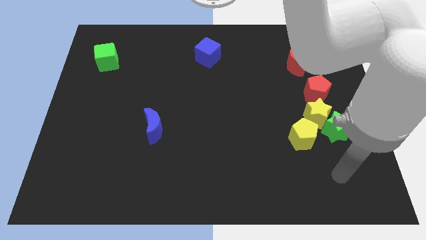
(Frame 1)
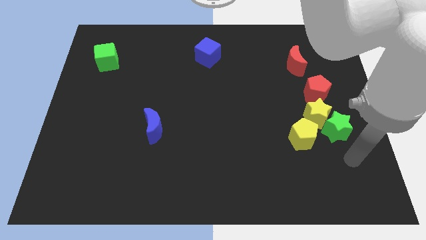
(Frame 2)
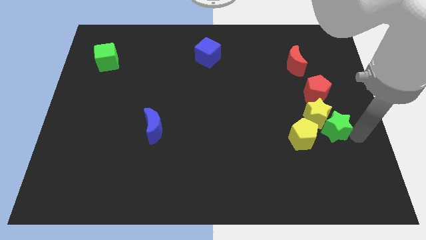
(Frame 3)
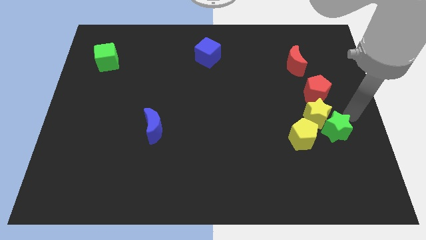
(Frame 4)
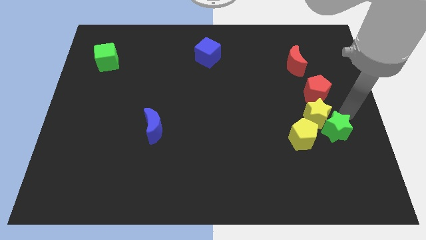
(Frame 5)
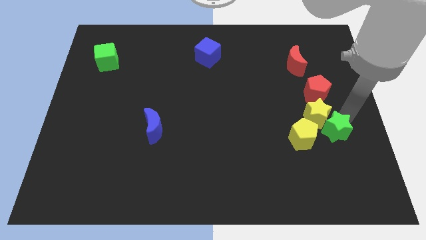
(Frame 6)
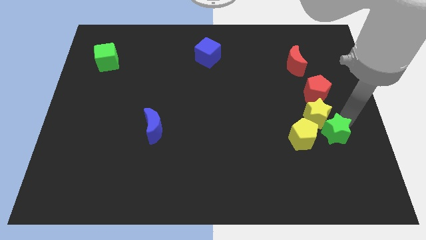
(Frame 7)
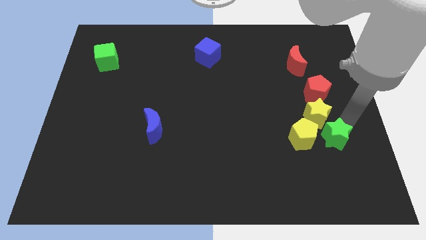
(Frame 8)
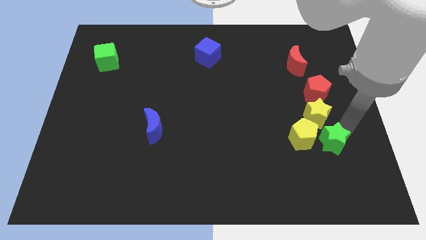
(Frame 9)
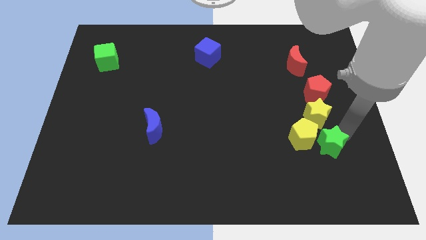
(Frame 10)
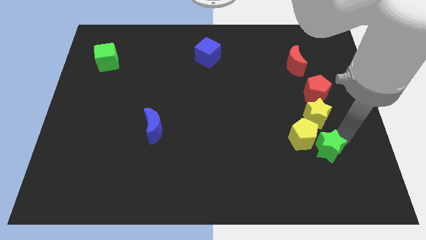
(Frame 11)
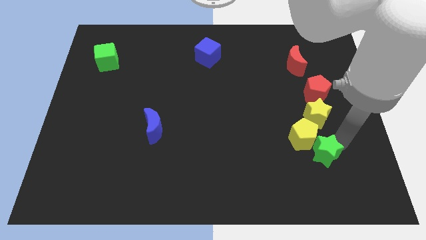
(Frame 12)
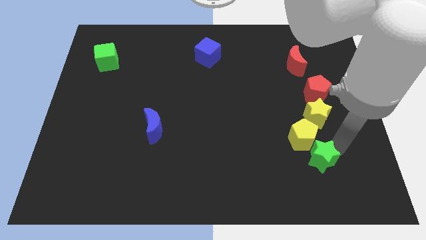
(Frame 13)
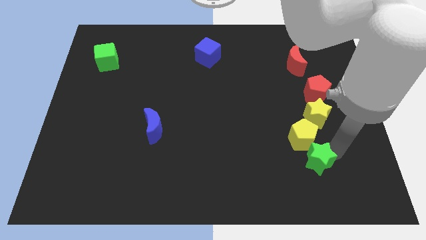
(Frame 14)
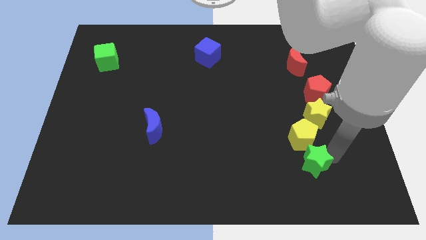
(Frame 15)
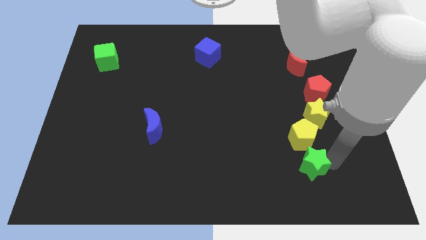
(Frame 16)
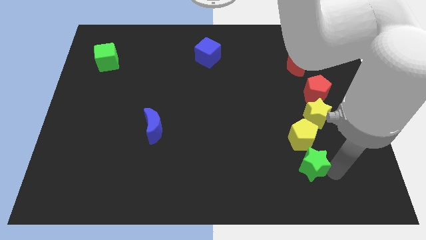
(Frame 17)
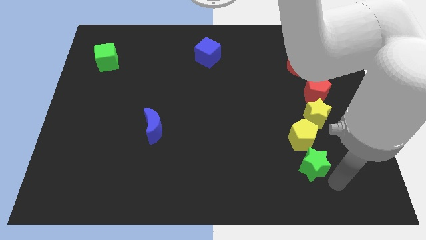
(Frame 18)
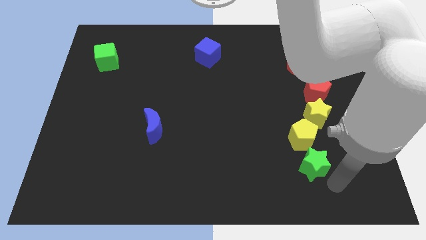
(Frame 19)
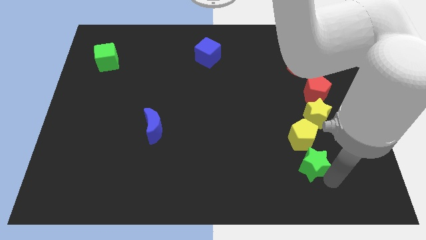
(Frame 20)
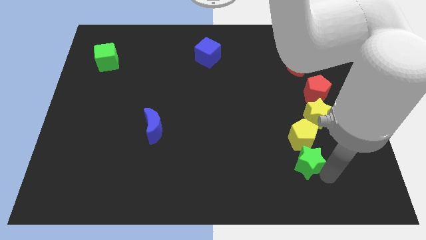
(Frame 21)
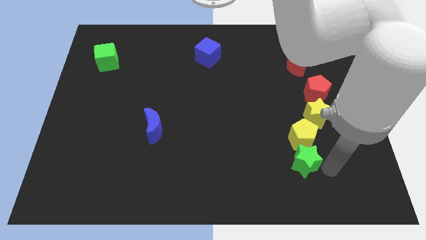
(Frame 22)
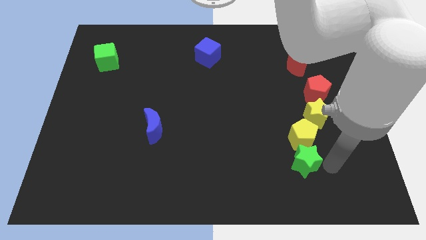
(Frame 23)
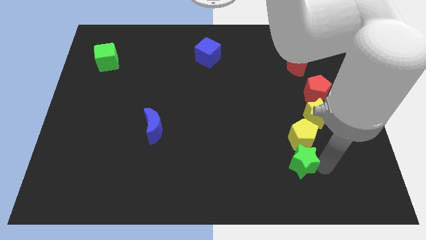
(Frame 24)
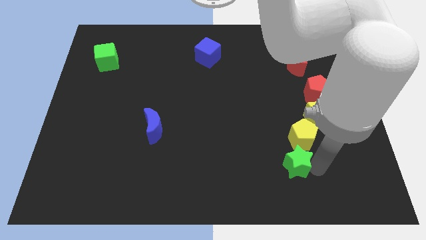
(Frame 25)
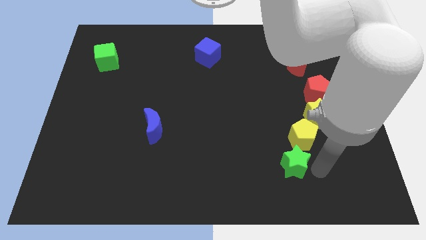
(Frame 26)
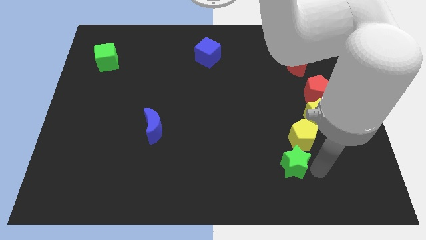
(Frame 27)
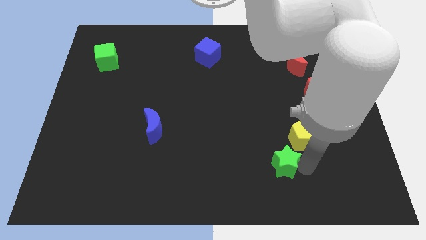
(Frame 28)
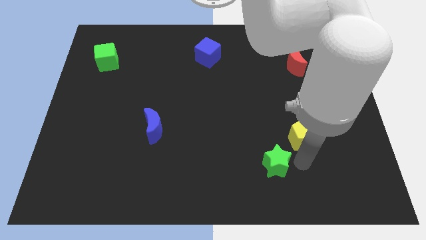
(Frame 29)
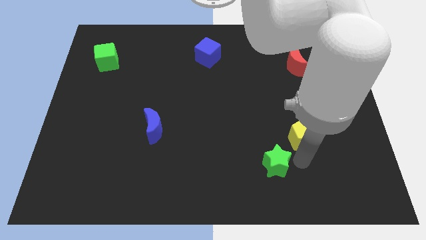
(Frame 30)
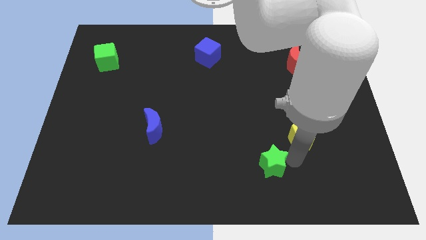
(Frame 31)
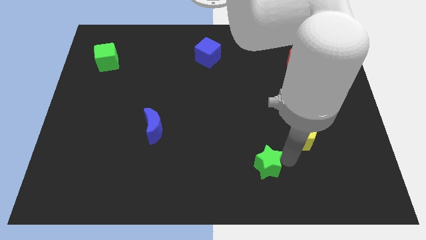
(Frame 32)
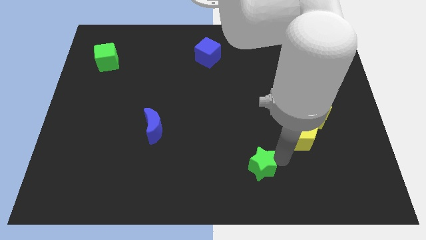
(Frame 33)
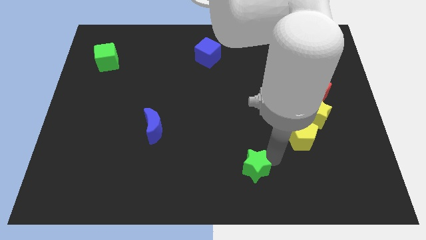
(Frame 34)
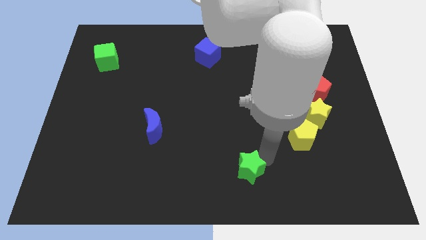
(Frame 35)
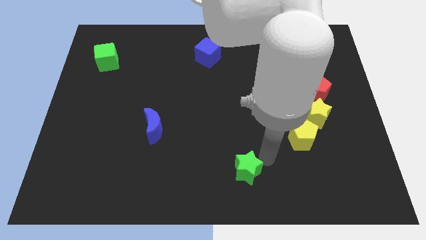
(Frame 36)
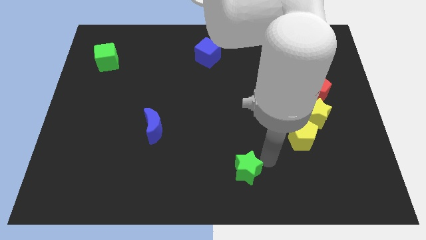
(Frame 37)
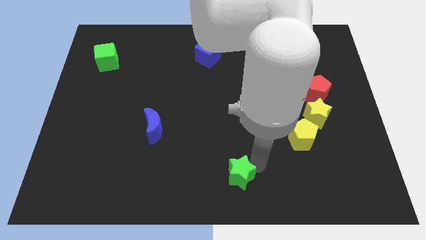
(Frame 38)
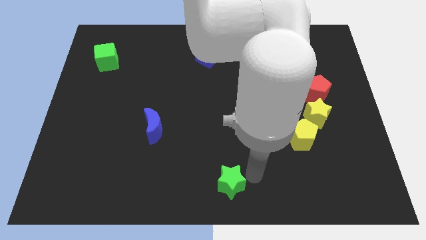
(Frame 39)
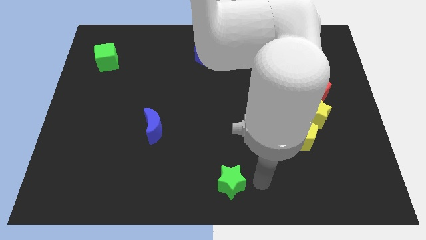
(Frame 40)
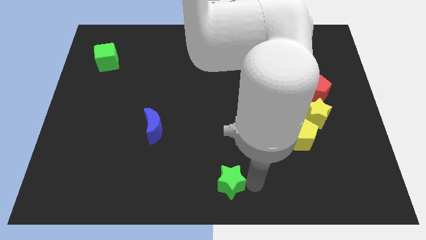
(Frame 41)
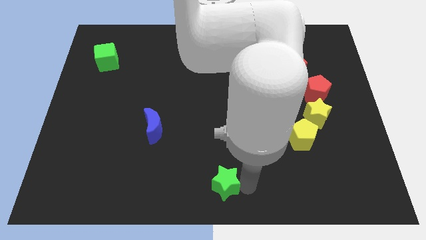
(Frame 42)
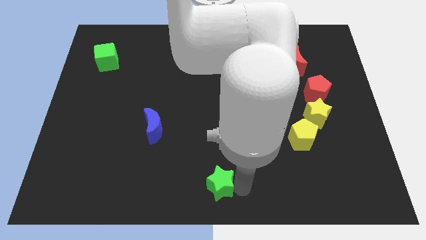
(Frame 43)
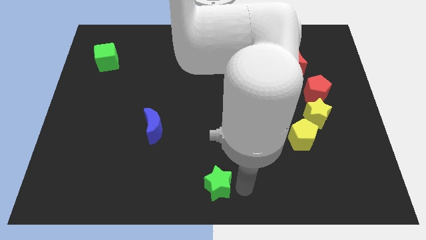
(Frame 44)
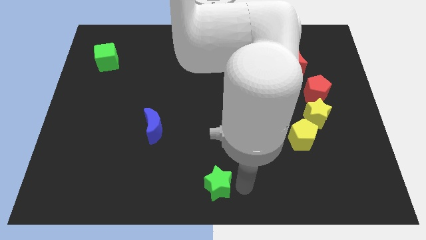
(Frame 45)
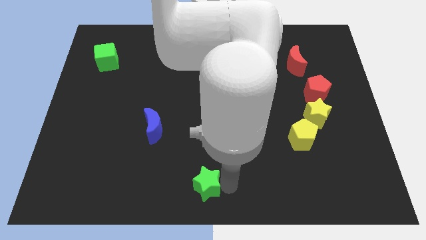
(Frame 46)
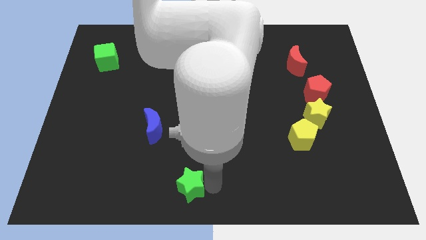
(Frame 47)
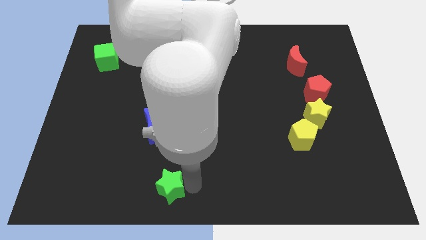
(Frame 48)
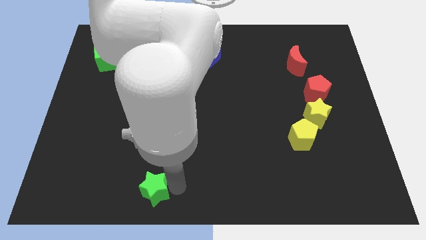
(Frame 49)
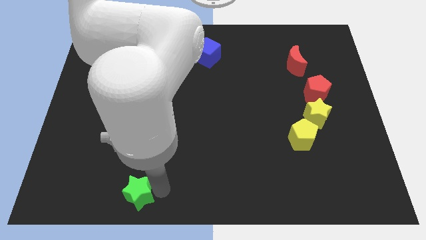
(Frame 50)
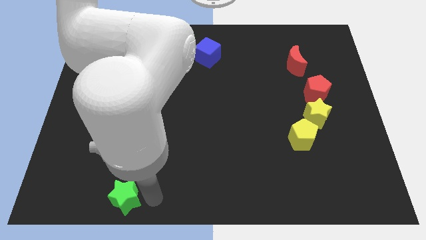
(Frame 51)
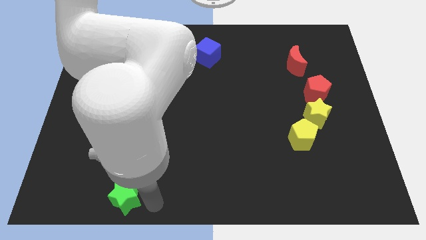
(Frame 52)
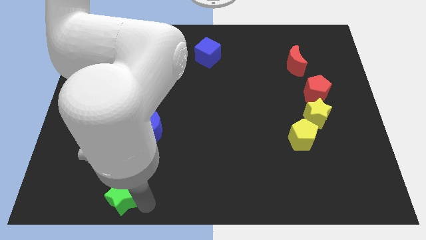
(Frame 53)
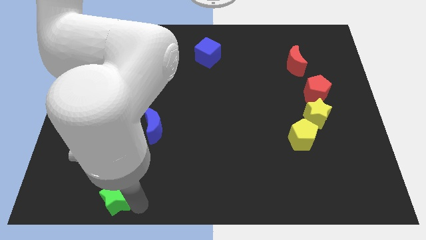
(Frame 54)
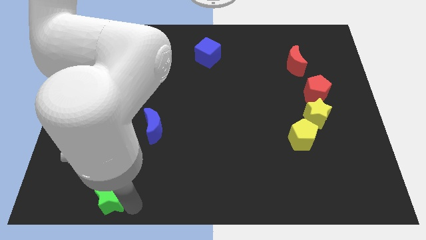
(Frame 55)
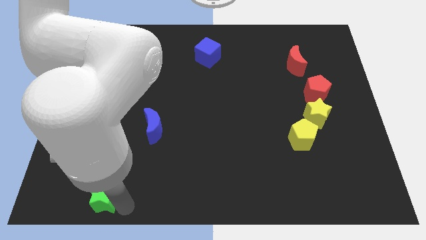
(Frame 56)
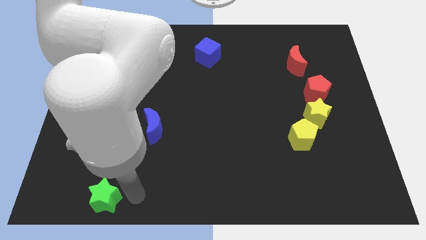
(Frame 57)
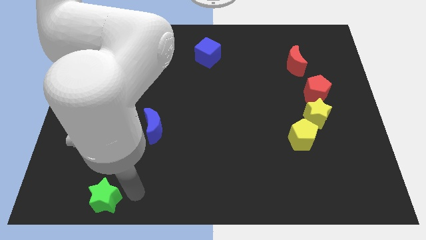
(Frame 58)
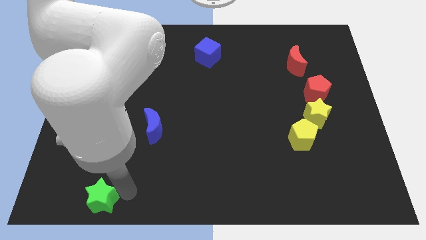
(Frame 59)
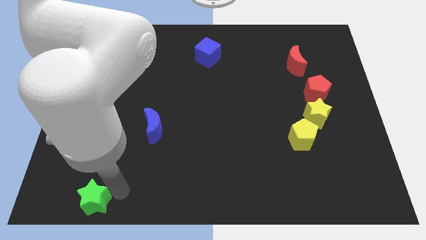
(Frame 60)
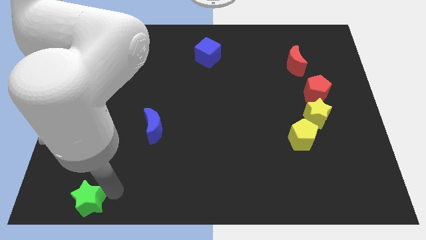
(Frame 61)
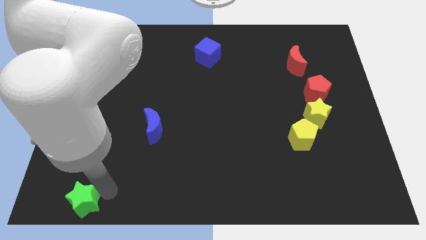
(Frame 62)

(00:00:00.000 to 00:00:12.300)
slide the green star to the bottom left of the board
